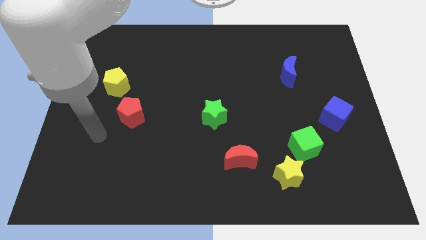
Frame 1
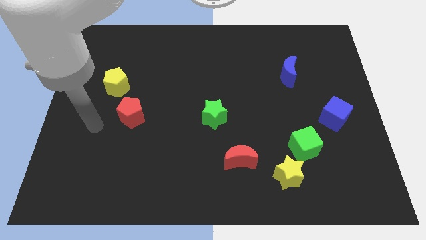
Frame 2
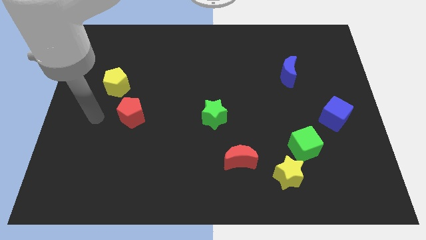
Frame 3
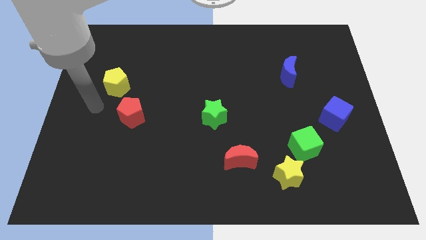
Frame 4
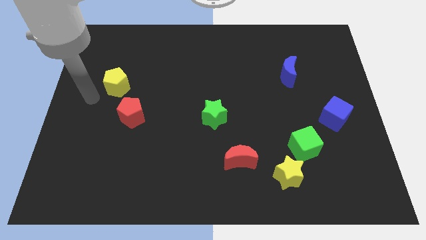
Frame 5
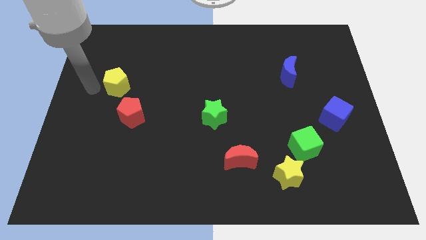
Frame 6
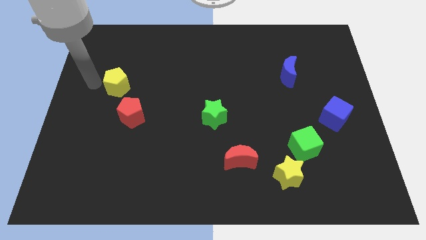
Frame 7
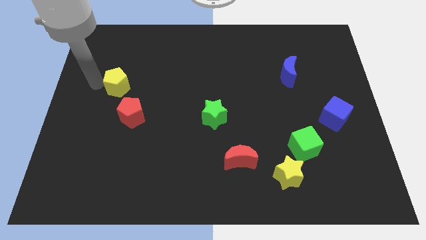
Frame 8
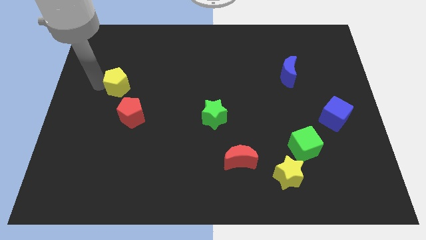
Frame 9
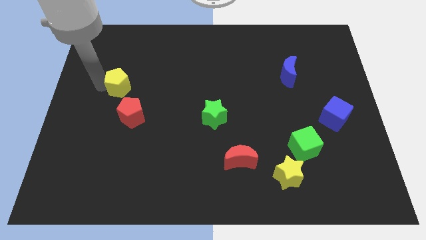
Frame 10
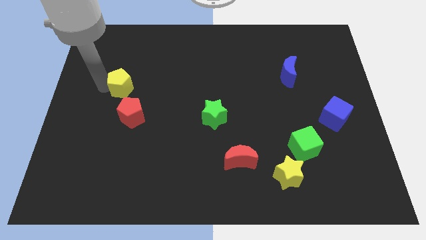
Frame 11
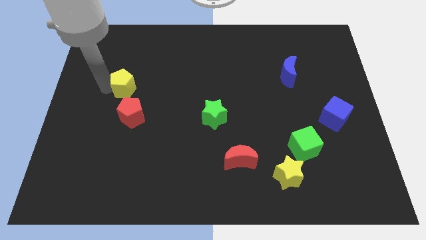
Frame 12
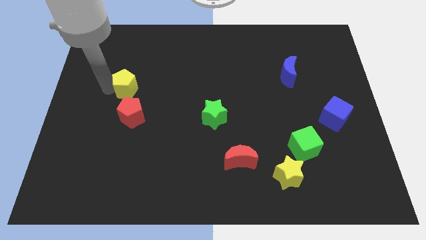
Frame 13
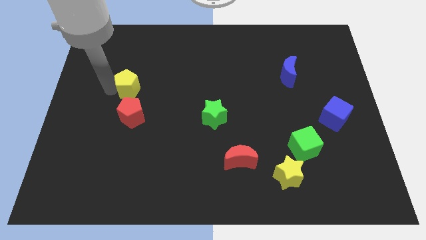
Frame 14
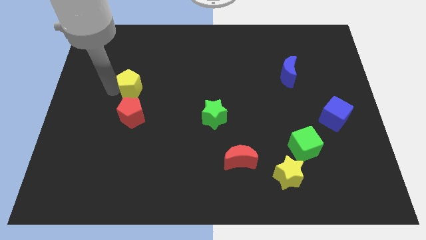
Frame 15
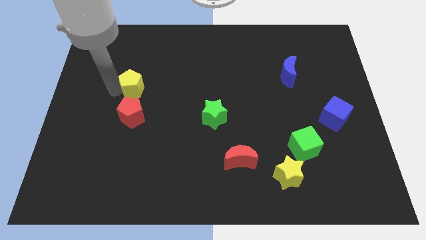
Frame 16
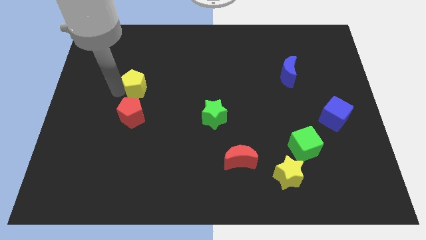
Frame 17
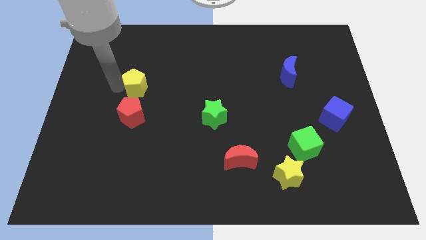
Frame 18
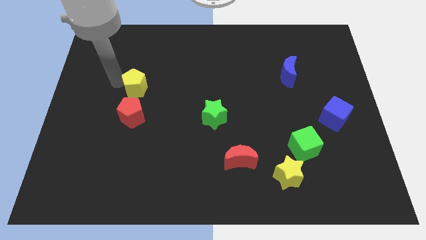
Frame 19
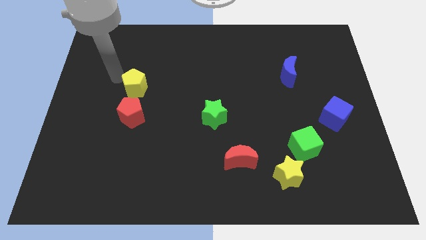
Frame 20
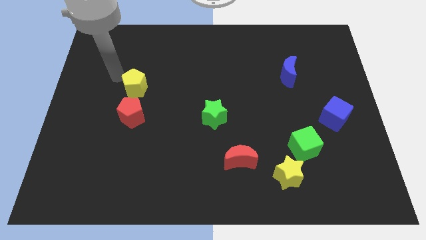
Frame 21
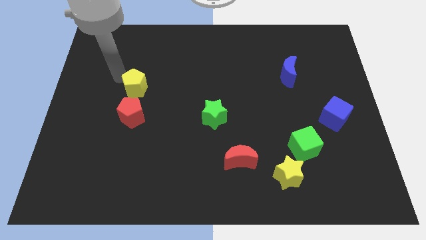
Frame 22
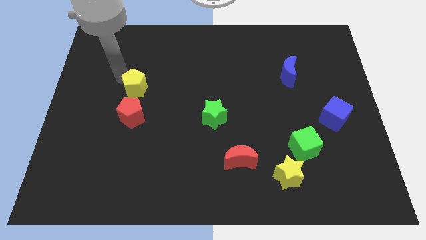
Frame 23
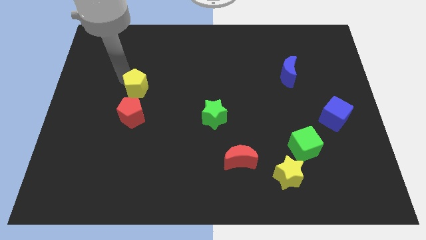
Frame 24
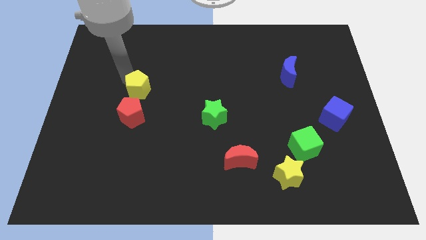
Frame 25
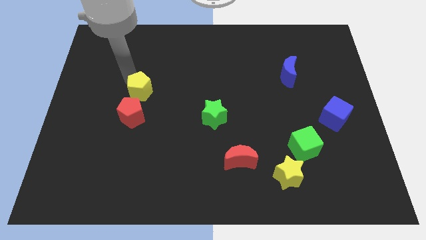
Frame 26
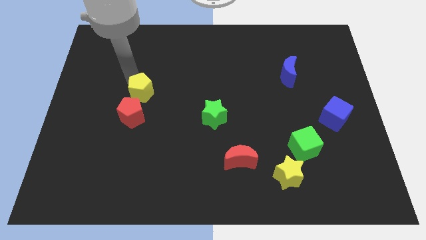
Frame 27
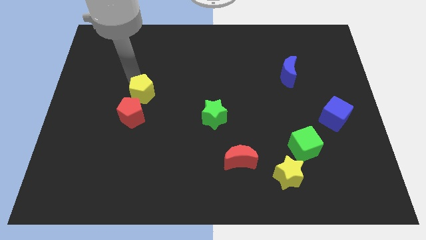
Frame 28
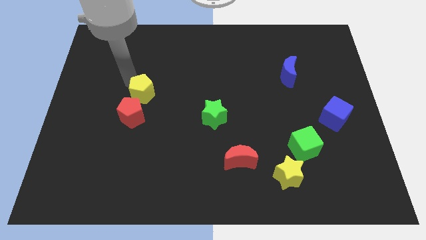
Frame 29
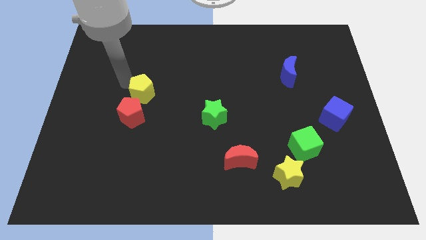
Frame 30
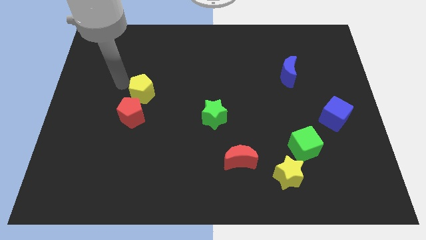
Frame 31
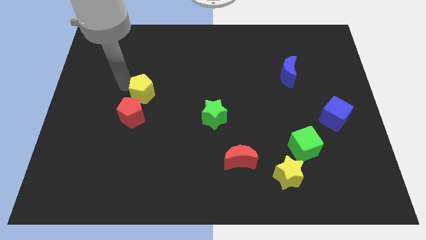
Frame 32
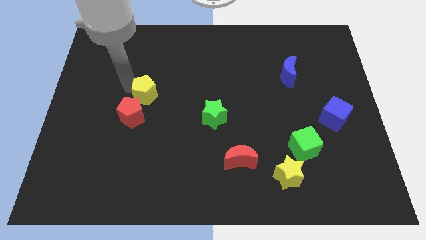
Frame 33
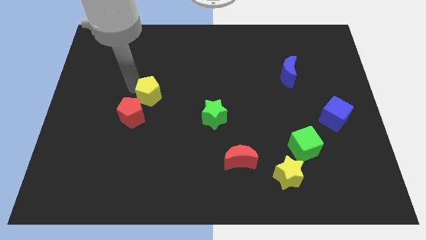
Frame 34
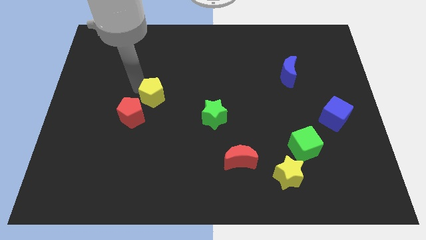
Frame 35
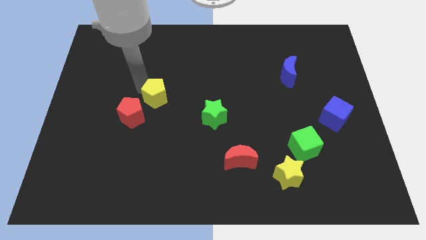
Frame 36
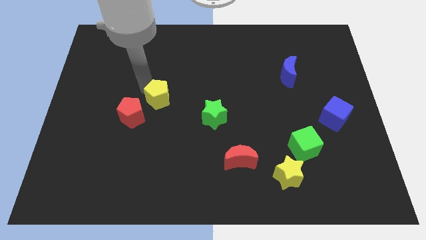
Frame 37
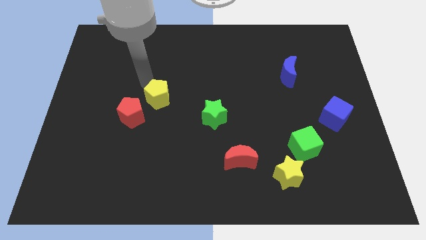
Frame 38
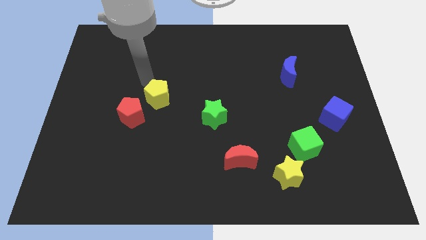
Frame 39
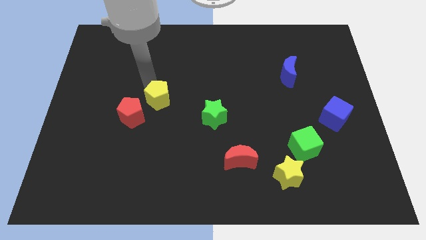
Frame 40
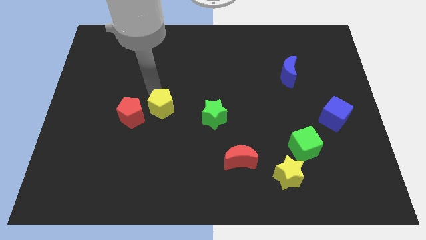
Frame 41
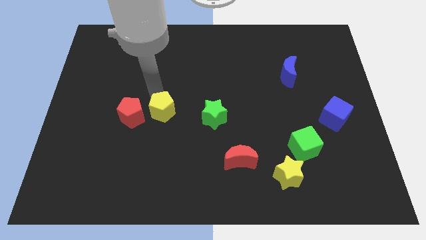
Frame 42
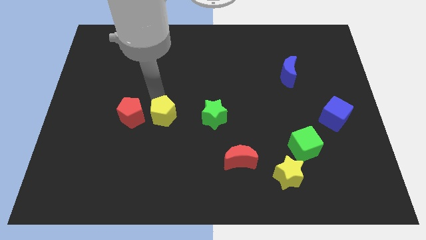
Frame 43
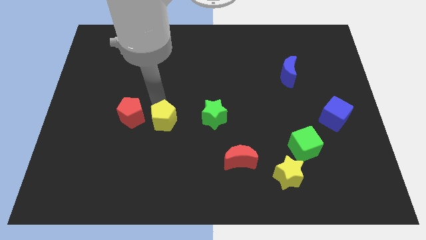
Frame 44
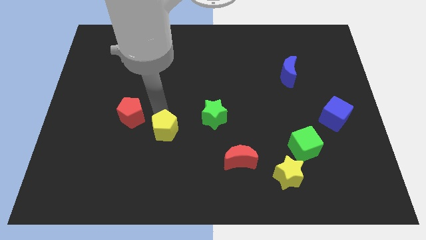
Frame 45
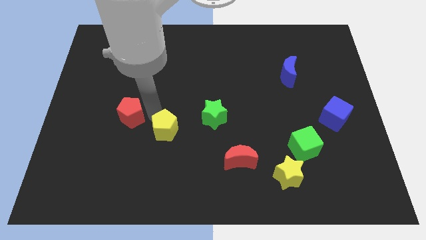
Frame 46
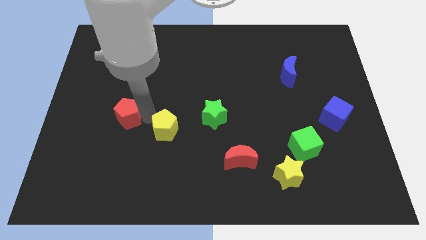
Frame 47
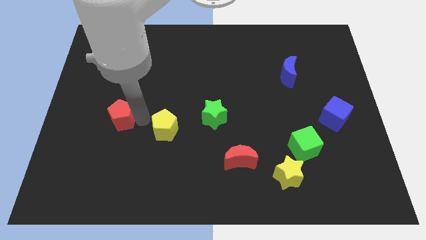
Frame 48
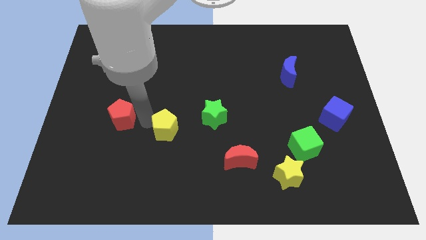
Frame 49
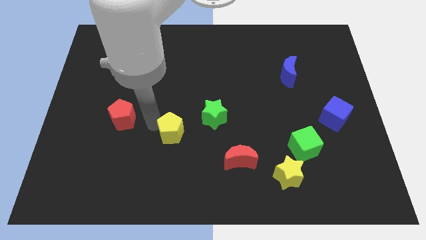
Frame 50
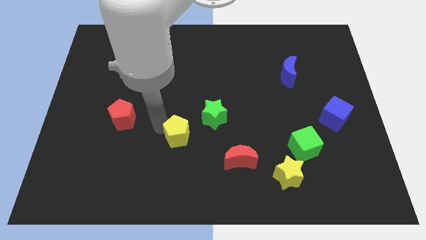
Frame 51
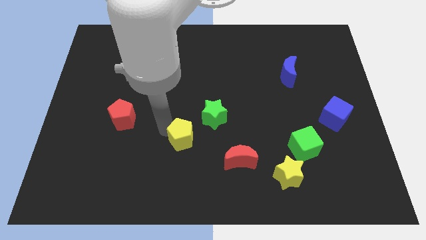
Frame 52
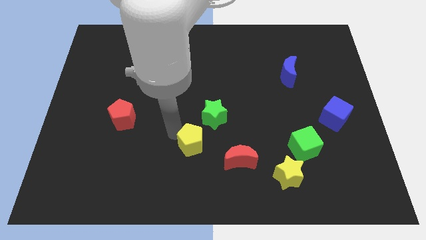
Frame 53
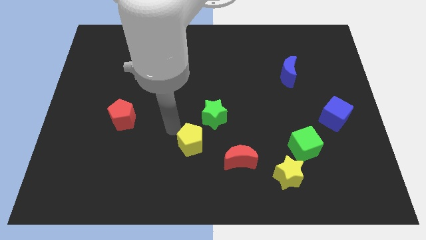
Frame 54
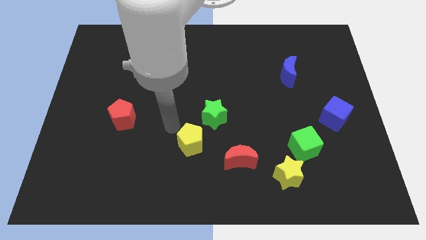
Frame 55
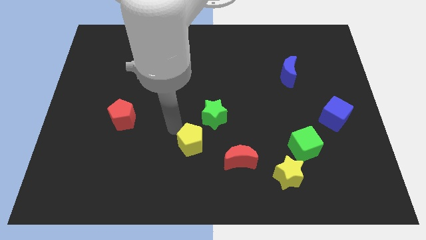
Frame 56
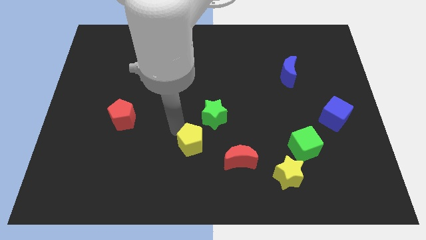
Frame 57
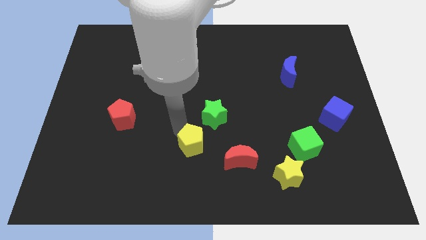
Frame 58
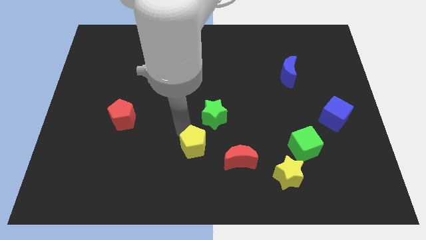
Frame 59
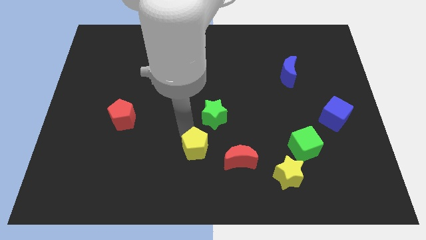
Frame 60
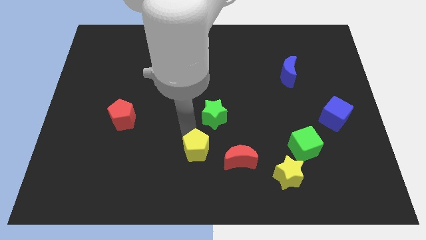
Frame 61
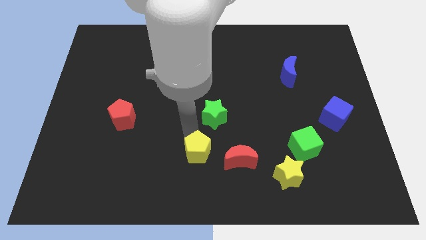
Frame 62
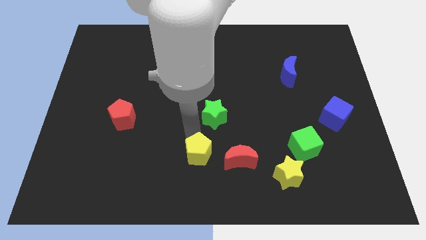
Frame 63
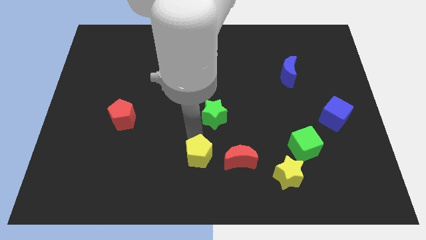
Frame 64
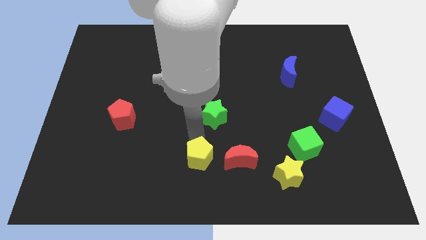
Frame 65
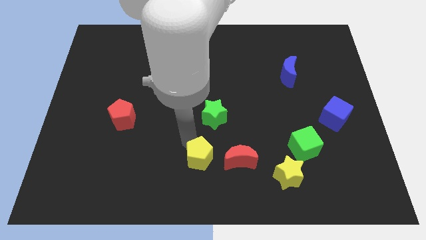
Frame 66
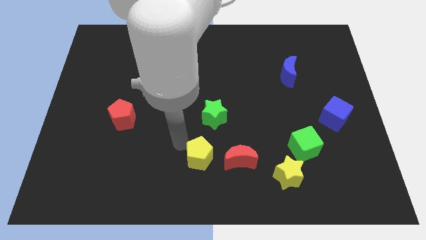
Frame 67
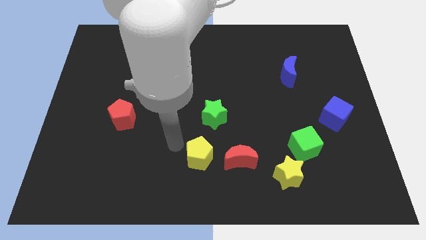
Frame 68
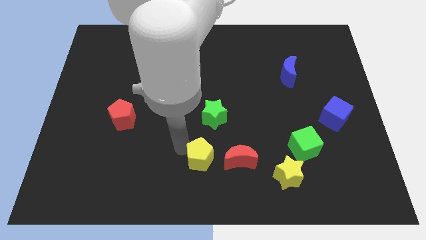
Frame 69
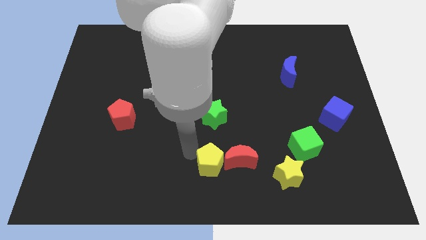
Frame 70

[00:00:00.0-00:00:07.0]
slide the yellow pentagon to the left of the yellow star
